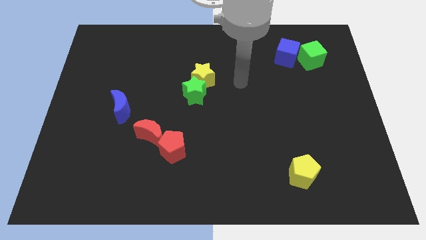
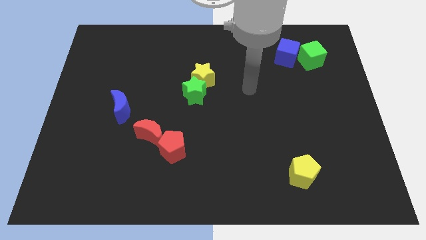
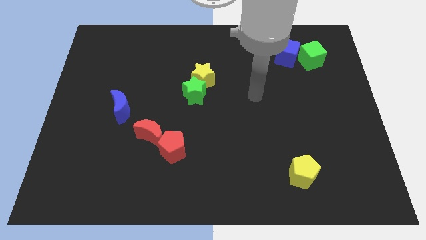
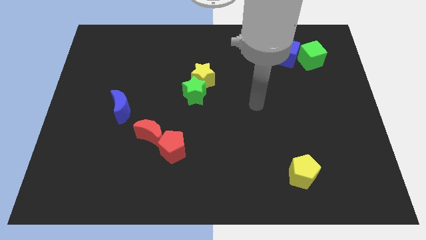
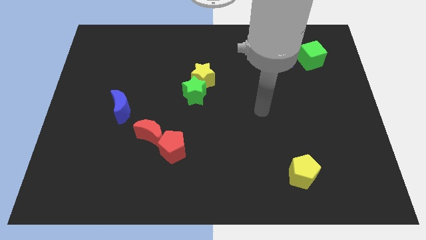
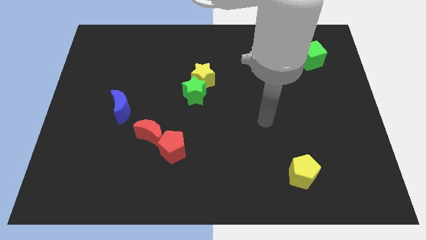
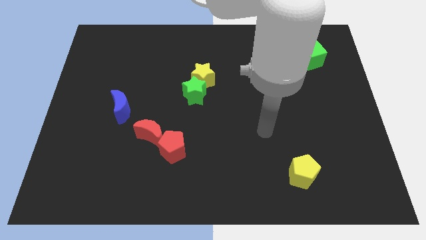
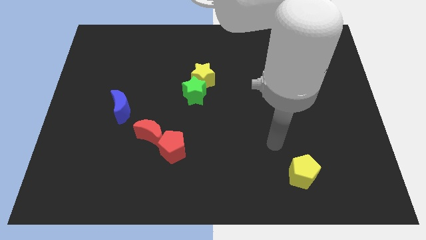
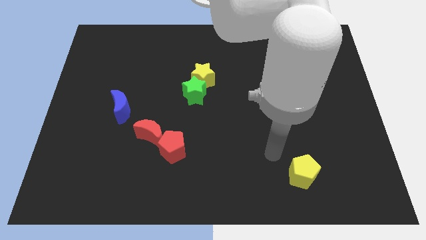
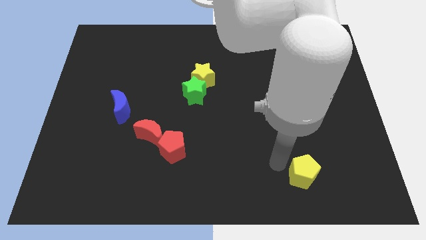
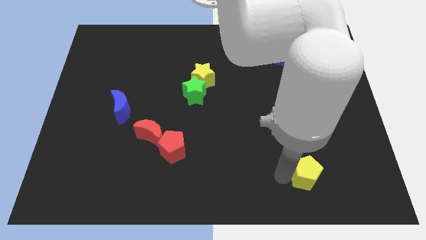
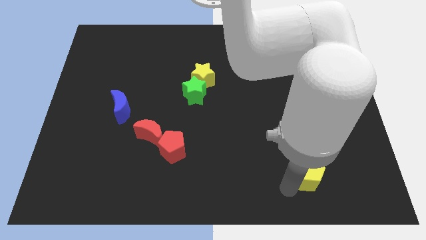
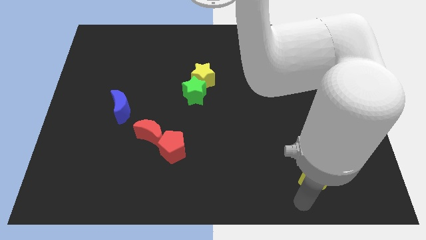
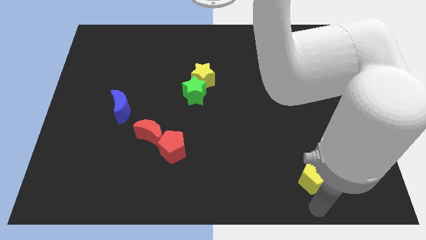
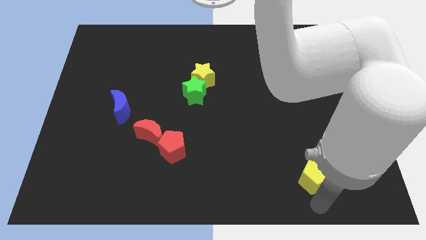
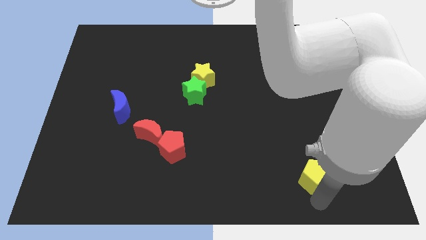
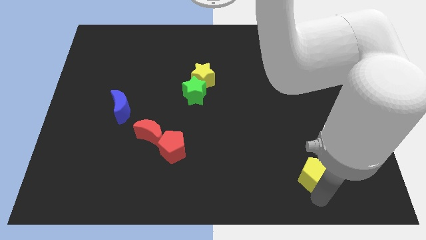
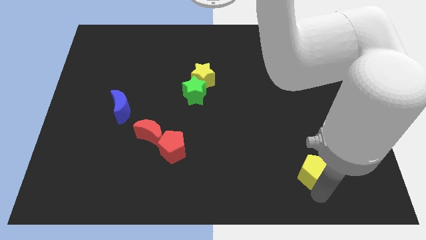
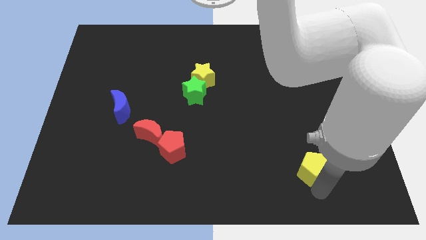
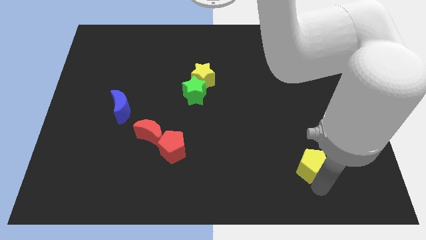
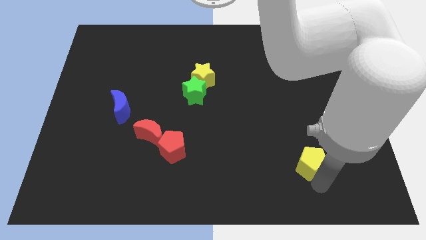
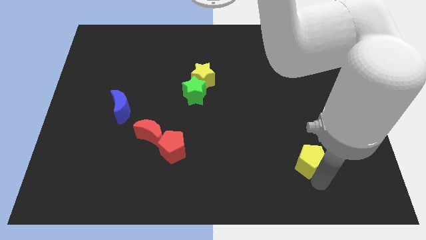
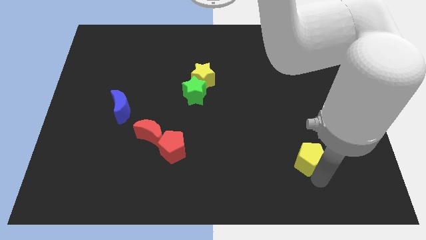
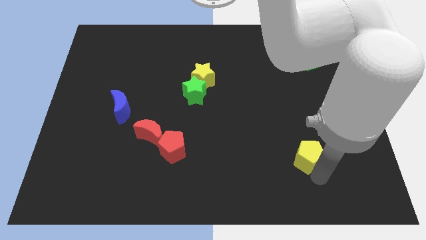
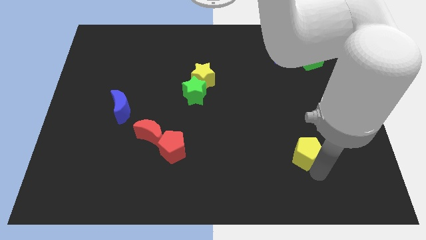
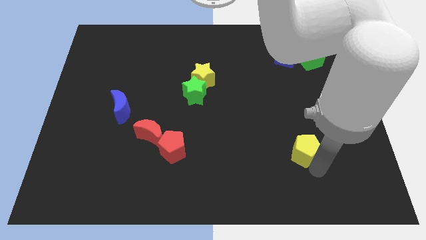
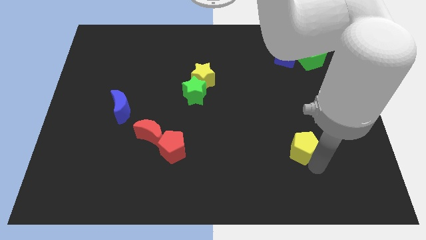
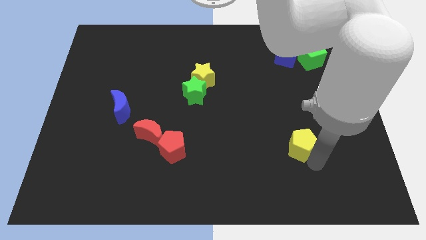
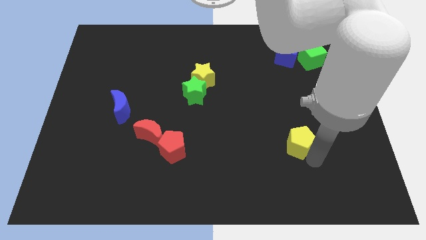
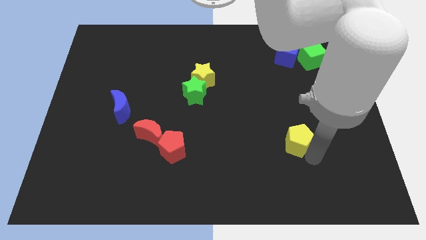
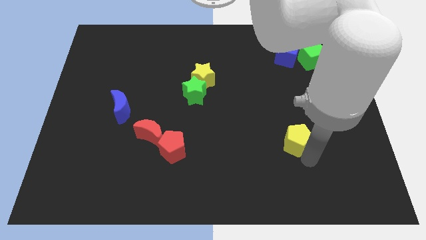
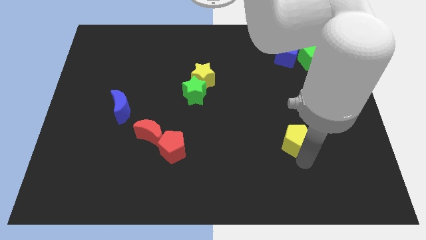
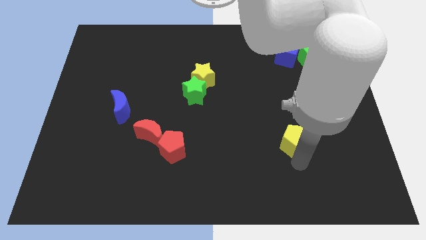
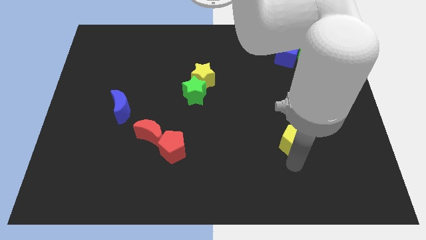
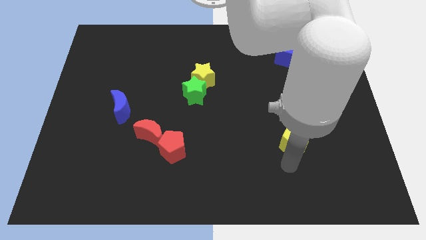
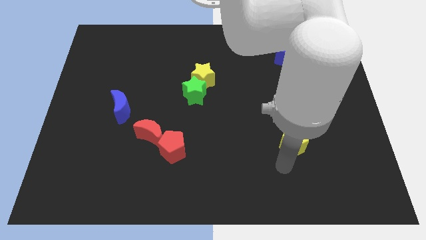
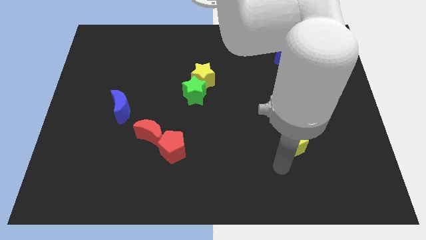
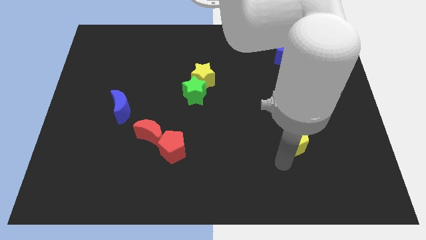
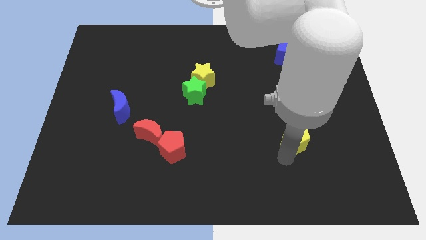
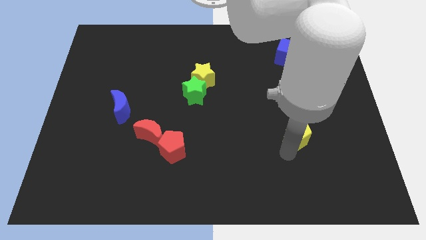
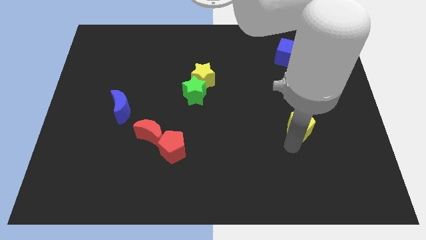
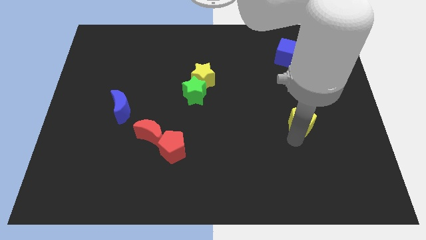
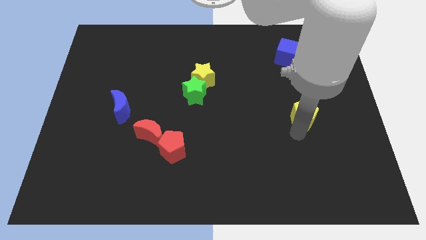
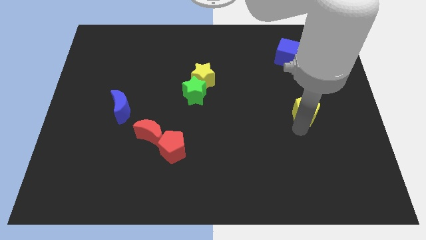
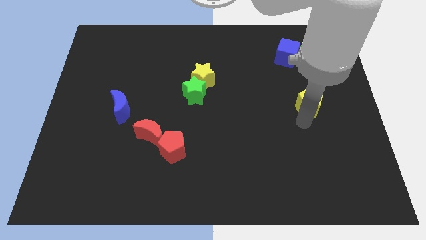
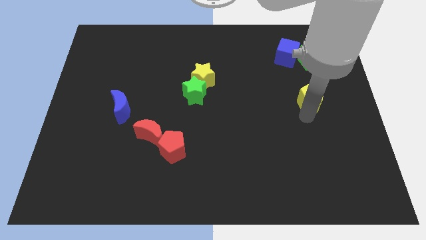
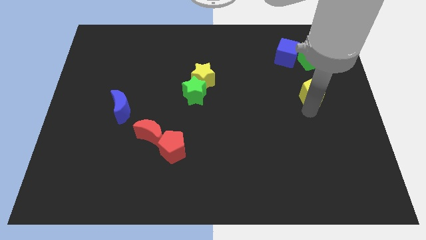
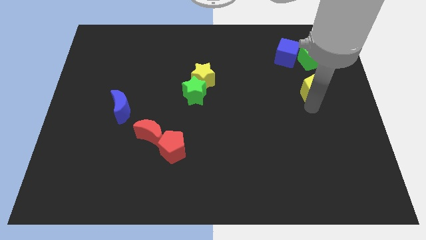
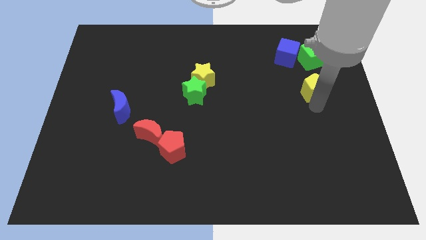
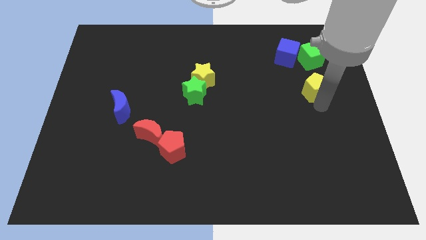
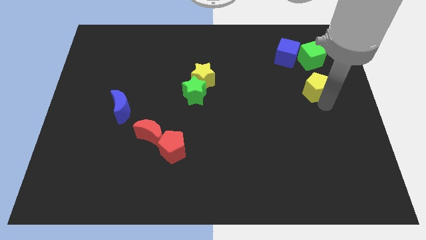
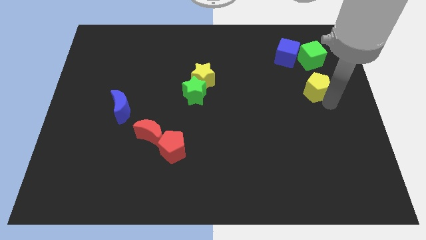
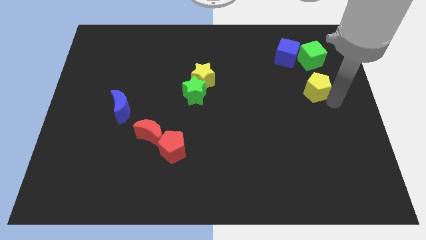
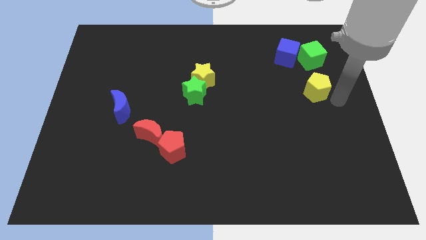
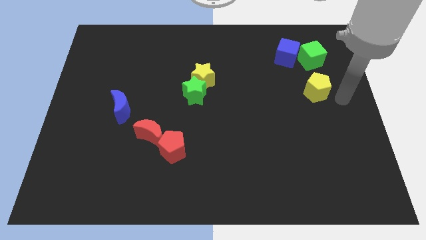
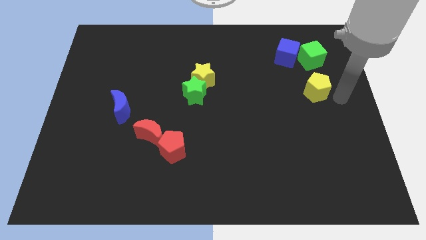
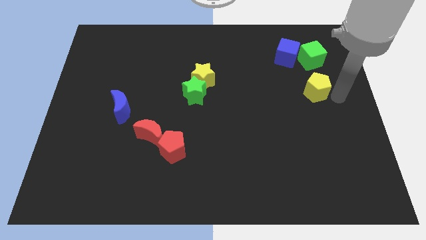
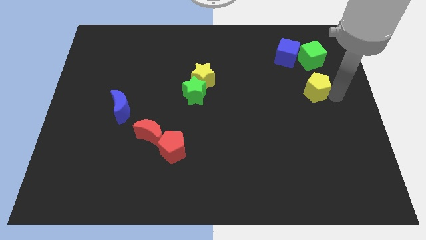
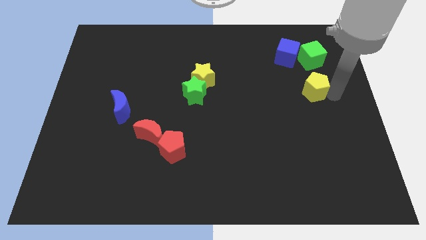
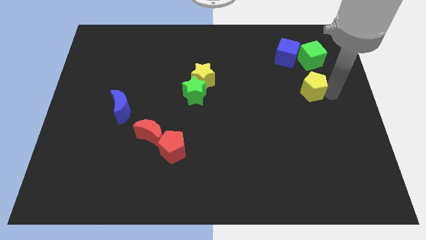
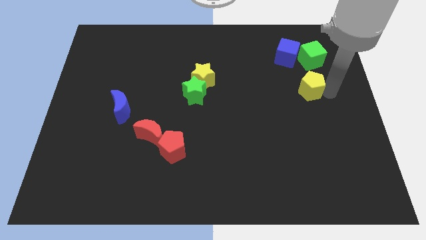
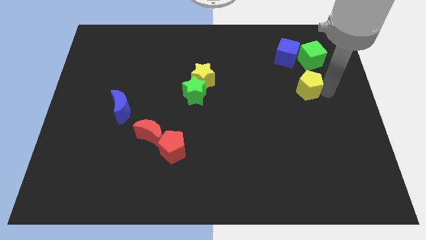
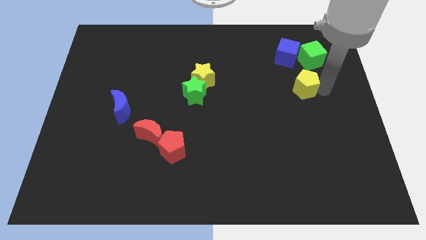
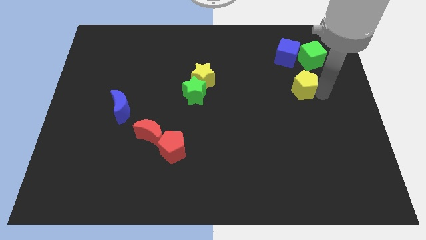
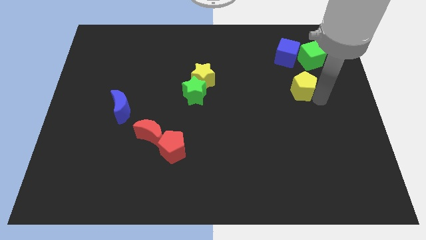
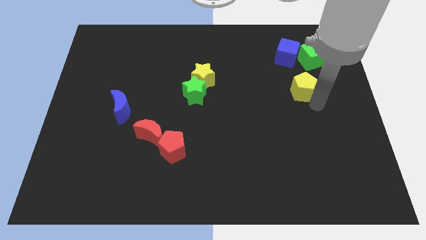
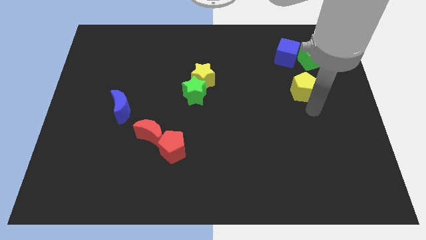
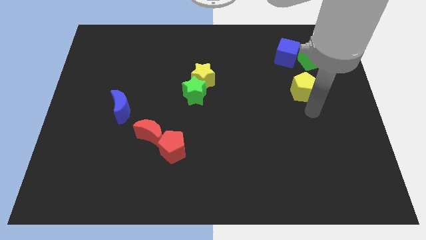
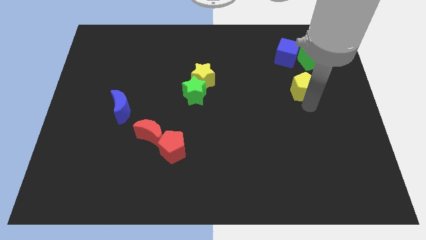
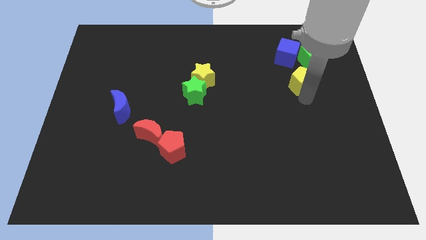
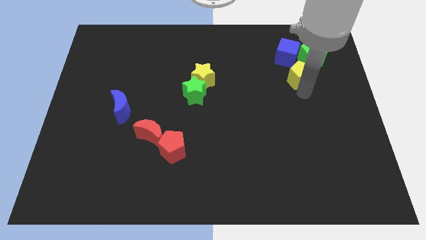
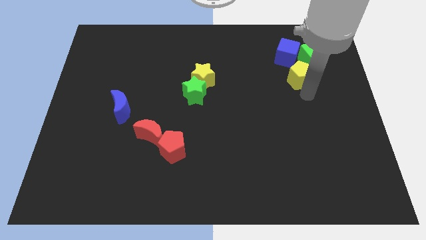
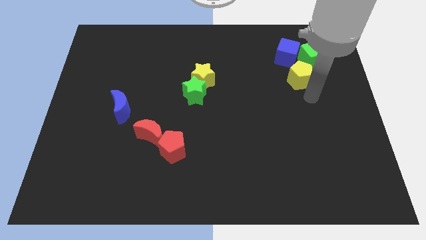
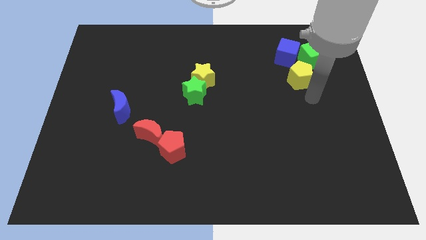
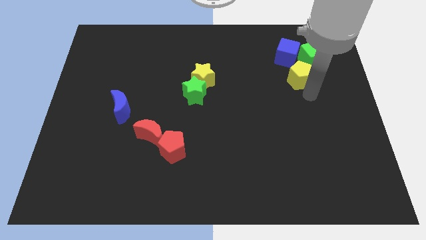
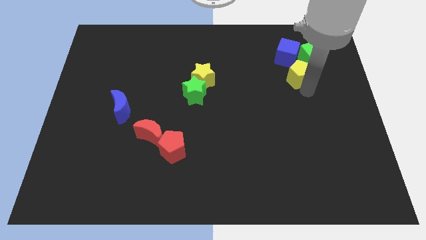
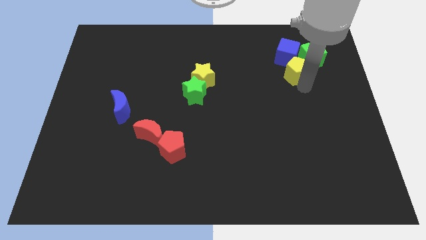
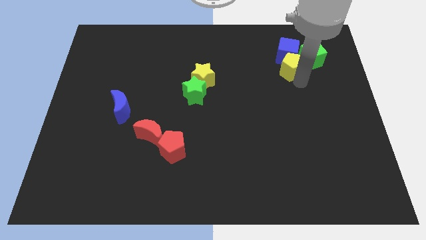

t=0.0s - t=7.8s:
push the yellow pentagon to the blue cube
